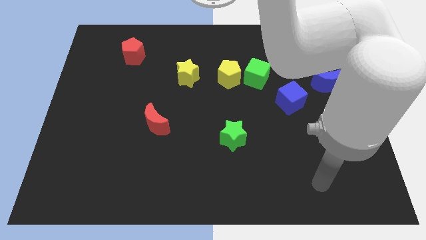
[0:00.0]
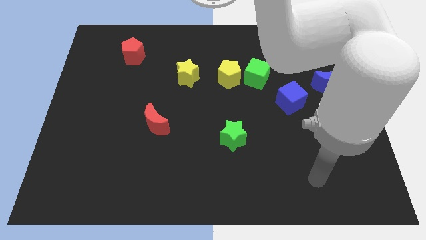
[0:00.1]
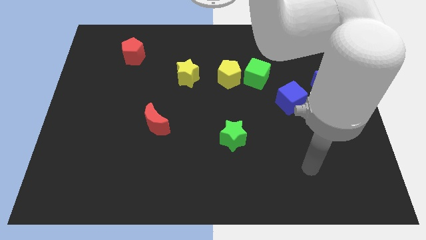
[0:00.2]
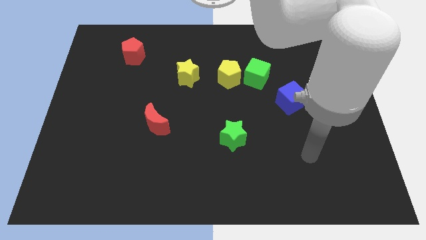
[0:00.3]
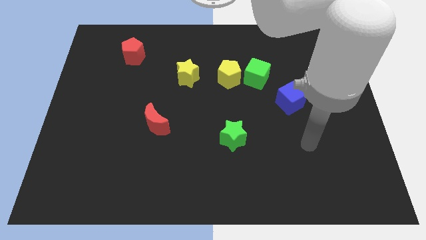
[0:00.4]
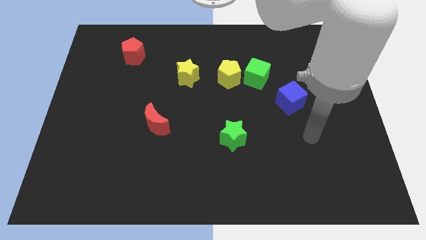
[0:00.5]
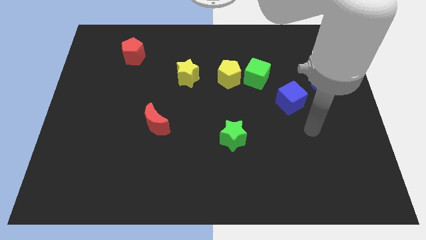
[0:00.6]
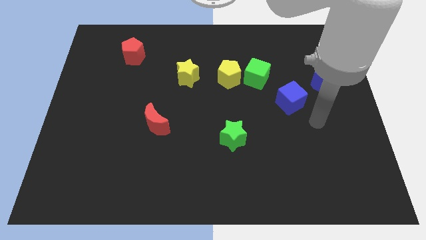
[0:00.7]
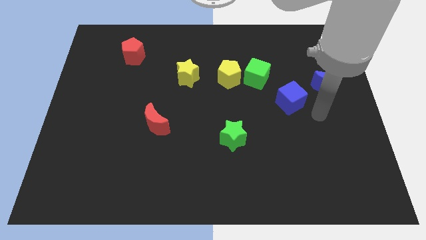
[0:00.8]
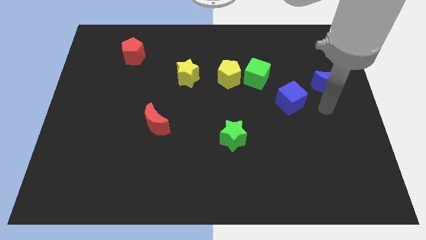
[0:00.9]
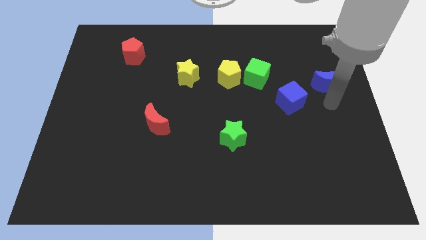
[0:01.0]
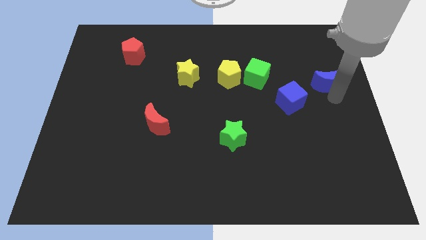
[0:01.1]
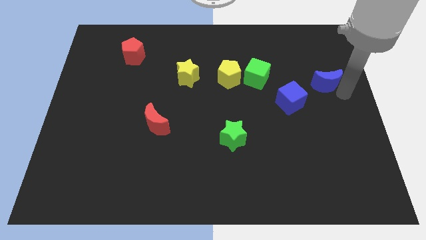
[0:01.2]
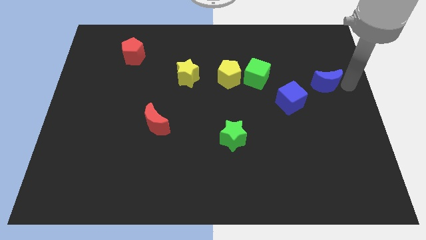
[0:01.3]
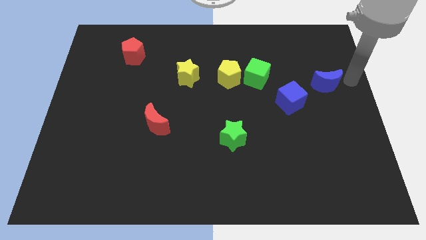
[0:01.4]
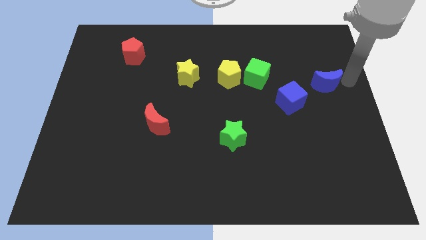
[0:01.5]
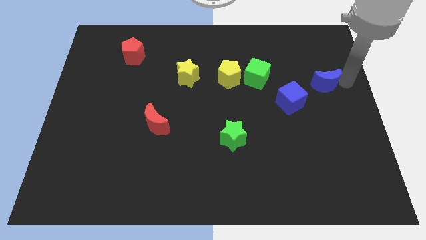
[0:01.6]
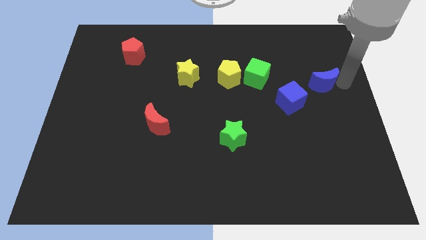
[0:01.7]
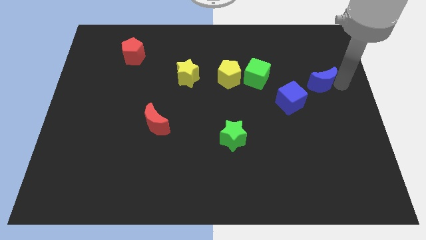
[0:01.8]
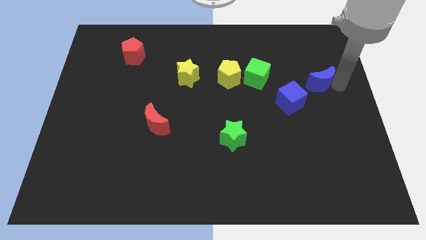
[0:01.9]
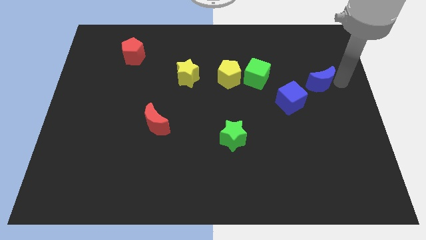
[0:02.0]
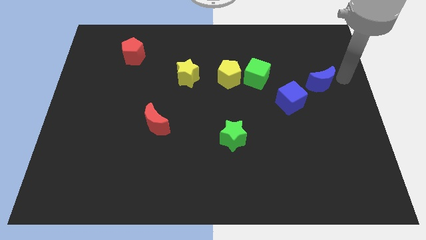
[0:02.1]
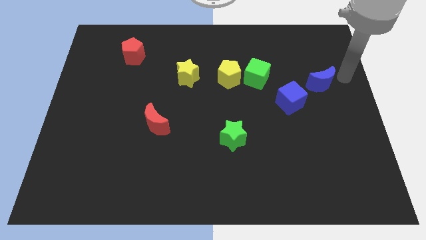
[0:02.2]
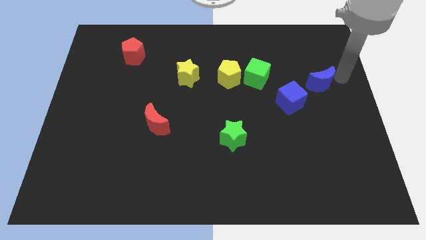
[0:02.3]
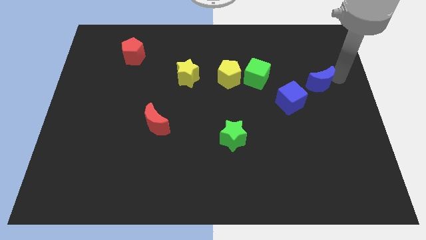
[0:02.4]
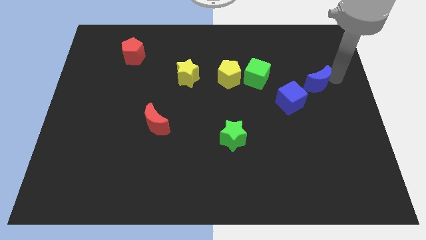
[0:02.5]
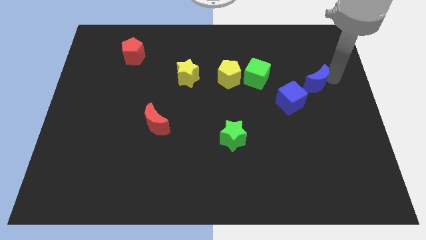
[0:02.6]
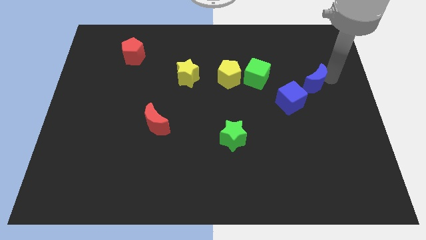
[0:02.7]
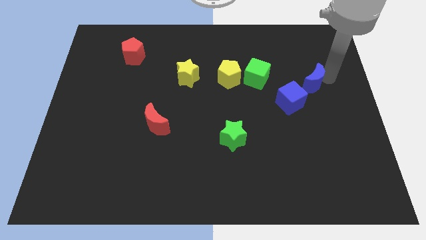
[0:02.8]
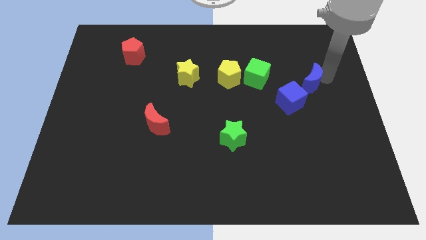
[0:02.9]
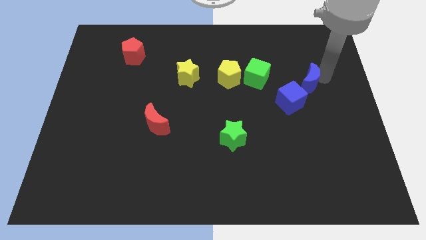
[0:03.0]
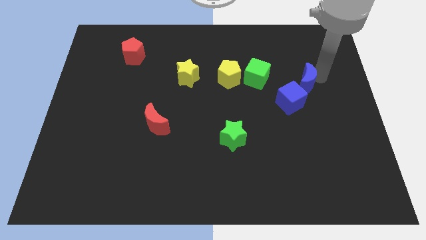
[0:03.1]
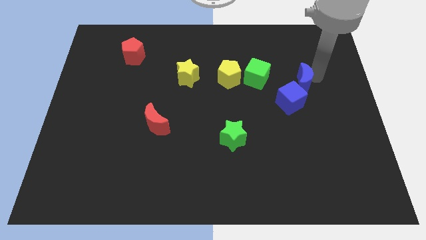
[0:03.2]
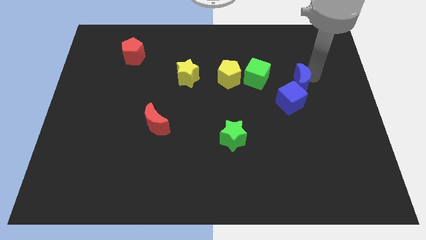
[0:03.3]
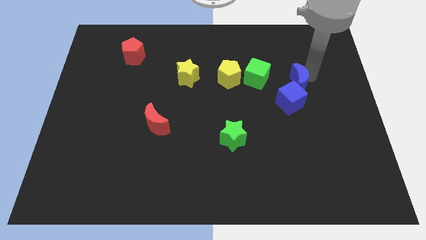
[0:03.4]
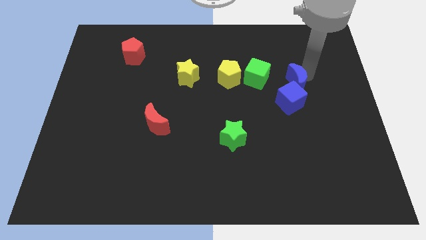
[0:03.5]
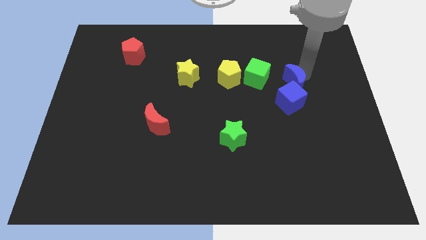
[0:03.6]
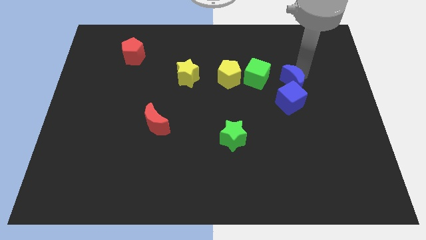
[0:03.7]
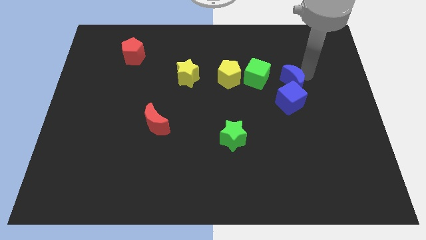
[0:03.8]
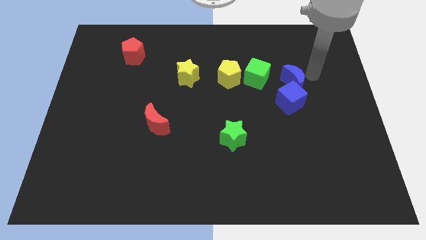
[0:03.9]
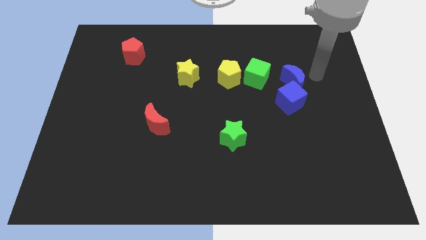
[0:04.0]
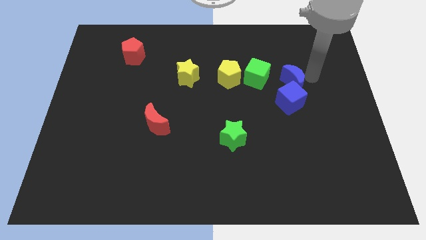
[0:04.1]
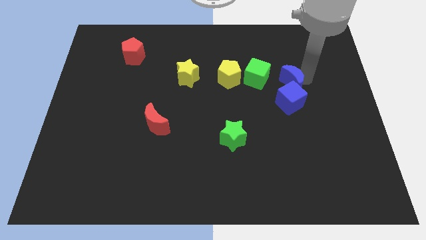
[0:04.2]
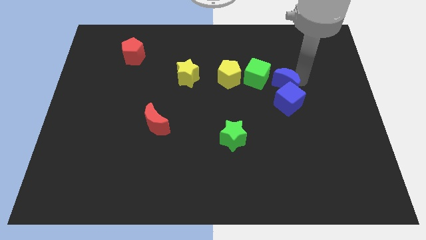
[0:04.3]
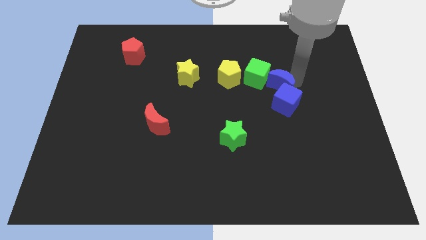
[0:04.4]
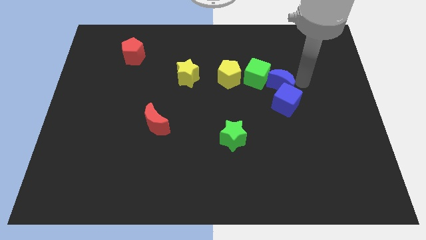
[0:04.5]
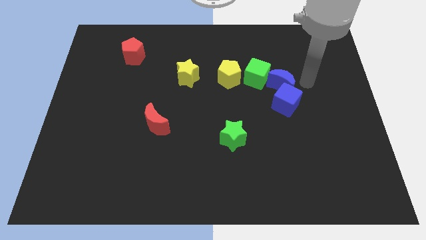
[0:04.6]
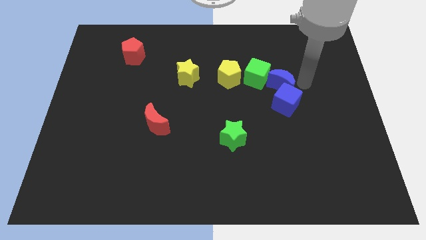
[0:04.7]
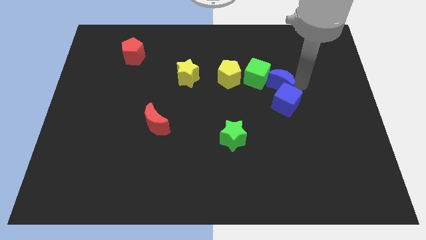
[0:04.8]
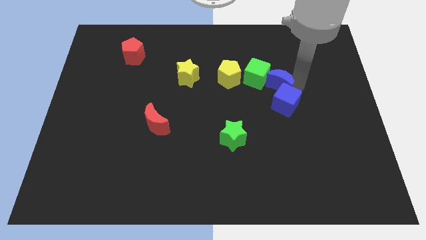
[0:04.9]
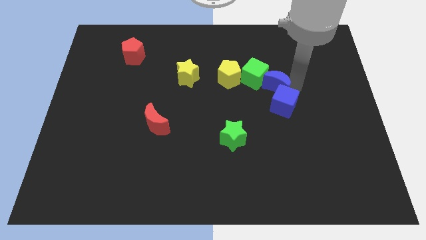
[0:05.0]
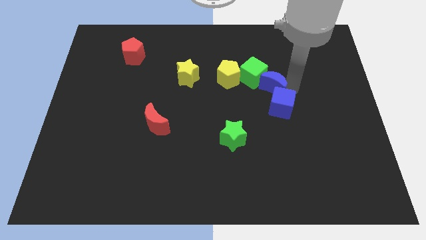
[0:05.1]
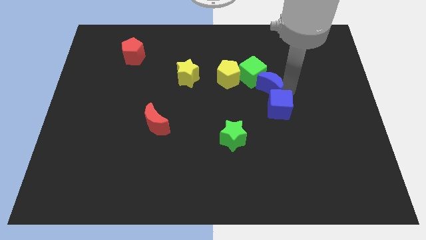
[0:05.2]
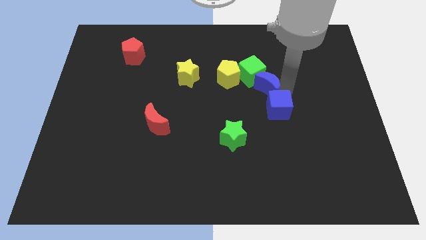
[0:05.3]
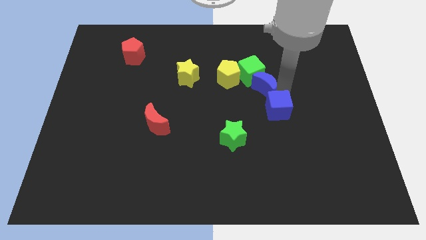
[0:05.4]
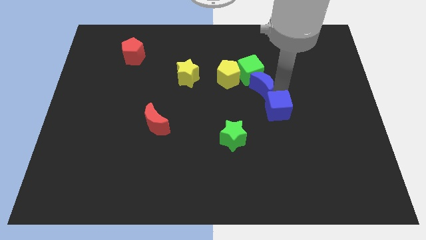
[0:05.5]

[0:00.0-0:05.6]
push the blue moon to the center

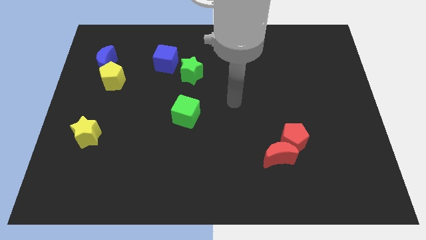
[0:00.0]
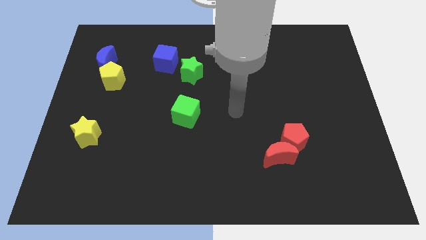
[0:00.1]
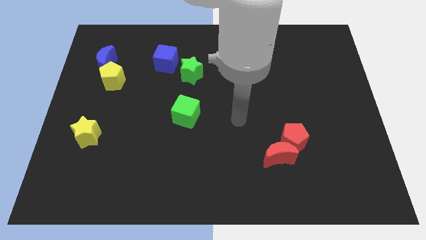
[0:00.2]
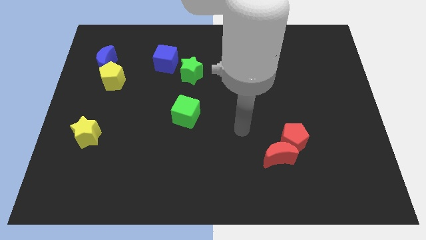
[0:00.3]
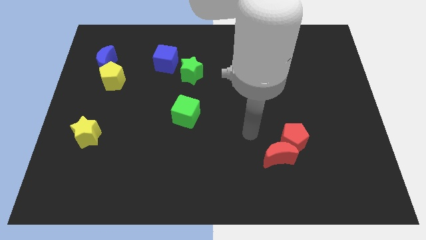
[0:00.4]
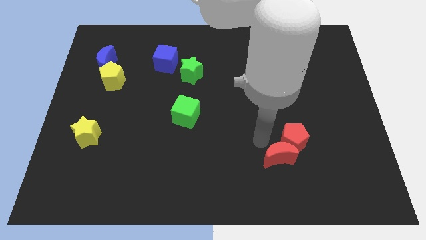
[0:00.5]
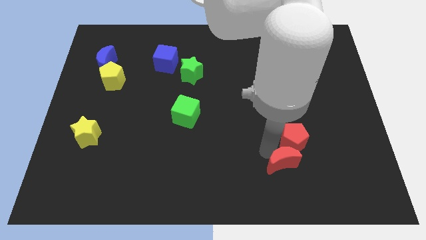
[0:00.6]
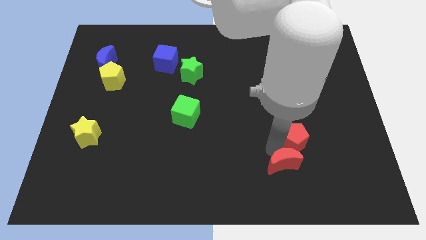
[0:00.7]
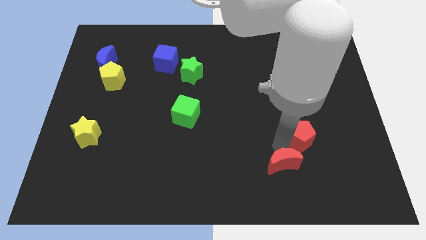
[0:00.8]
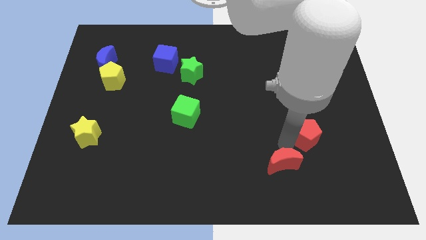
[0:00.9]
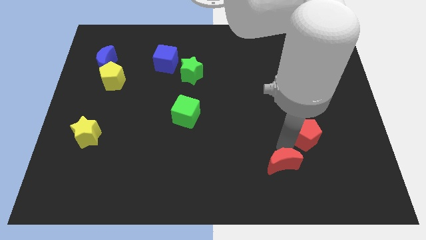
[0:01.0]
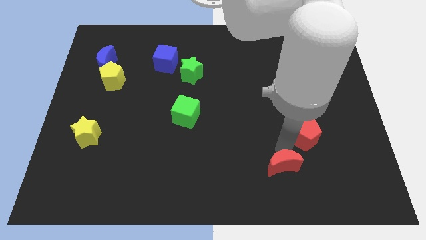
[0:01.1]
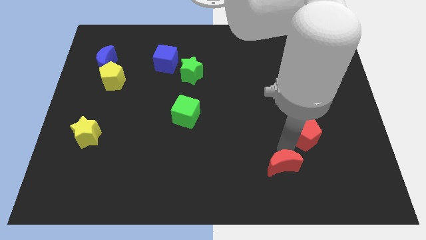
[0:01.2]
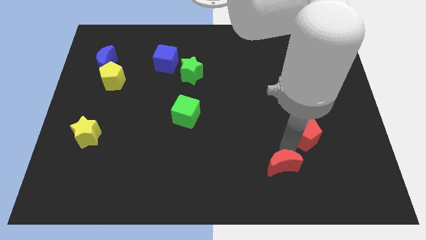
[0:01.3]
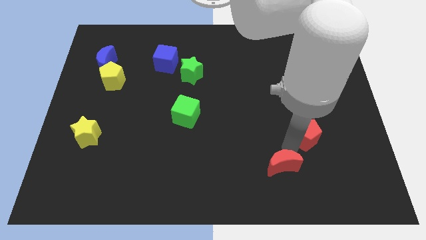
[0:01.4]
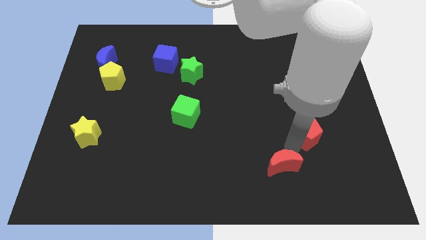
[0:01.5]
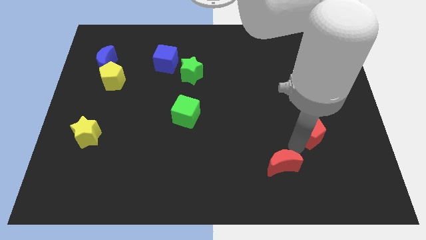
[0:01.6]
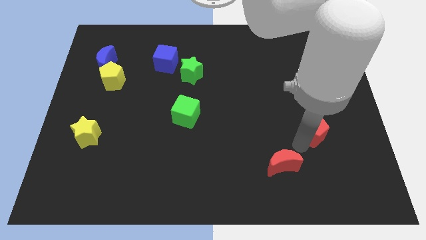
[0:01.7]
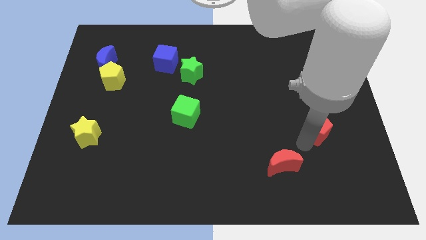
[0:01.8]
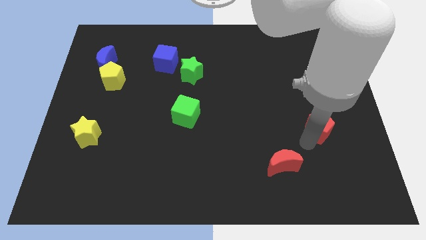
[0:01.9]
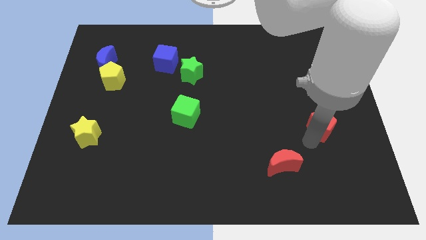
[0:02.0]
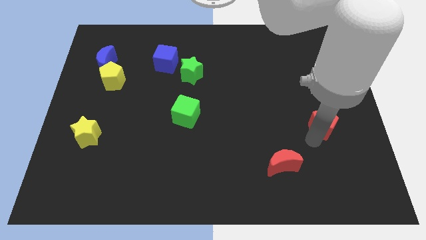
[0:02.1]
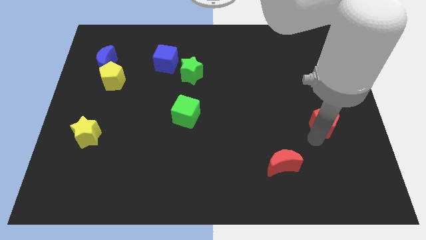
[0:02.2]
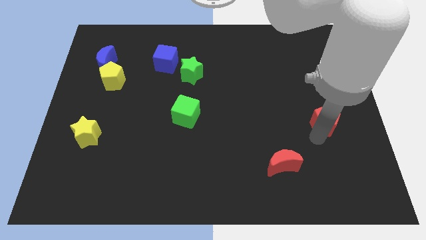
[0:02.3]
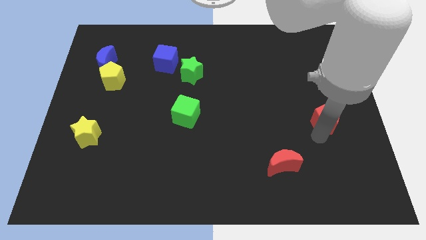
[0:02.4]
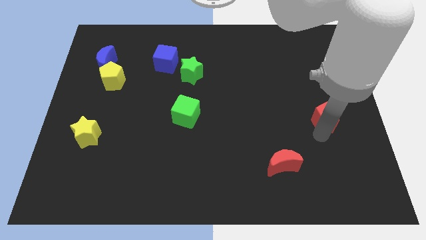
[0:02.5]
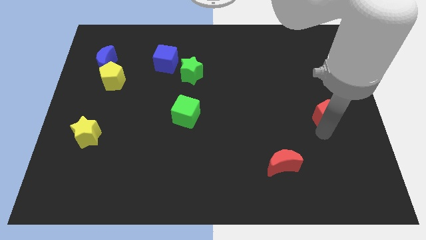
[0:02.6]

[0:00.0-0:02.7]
push the red pentagon to the right side
